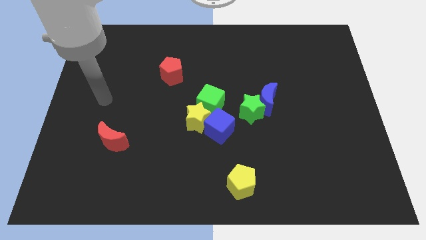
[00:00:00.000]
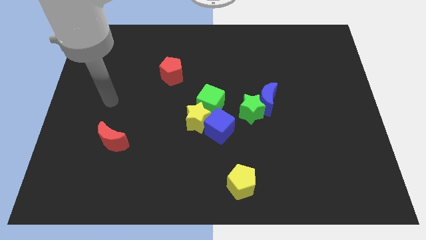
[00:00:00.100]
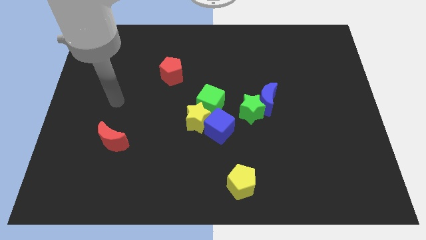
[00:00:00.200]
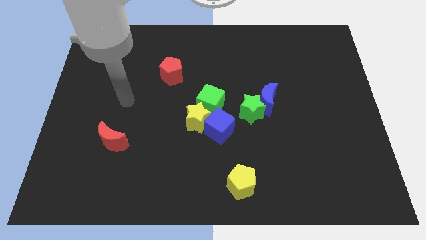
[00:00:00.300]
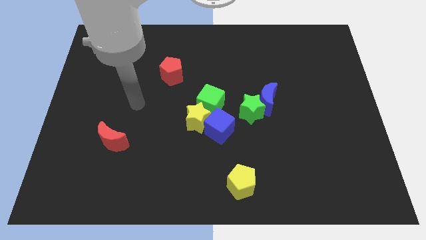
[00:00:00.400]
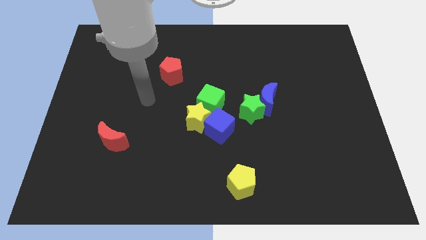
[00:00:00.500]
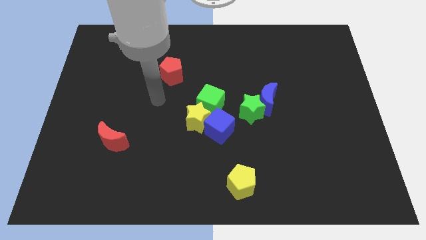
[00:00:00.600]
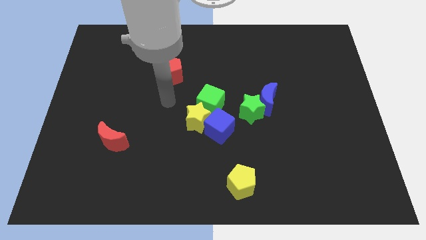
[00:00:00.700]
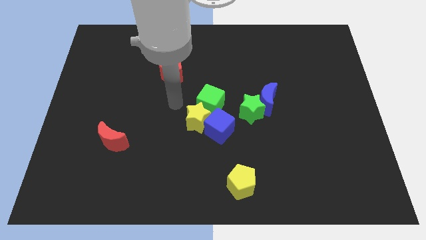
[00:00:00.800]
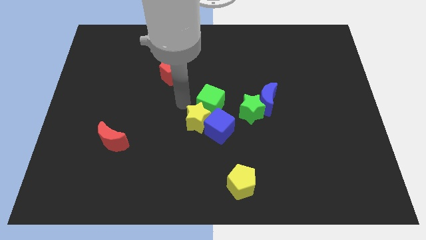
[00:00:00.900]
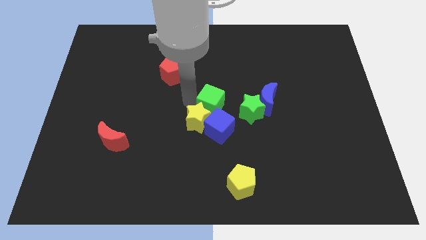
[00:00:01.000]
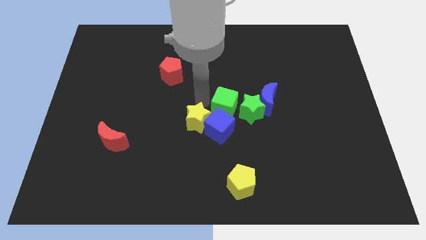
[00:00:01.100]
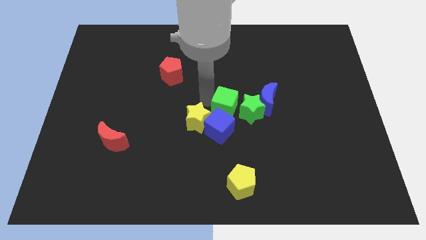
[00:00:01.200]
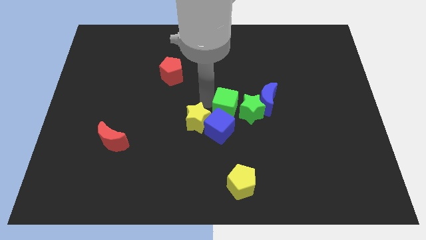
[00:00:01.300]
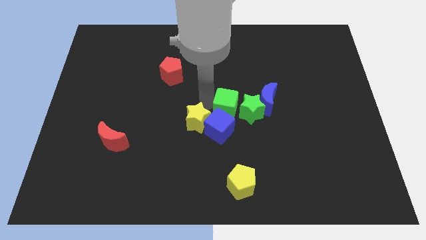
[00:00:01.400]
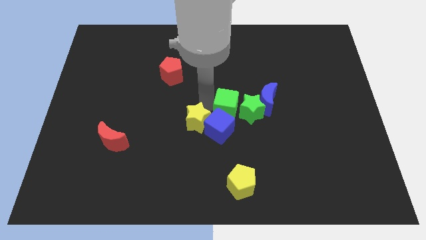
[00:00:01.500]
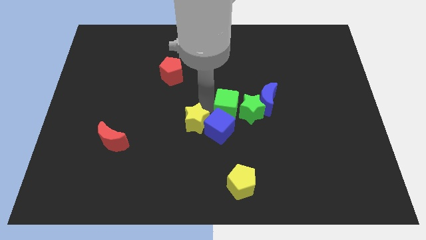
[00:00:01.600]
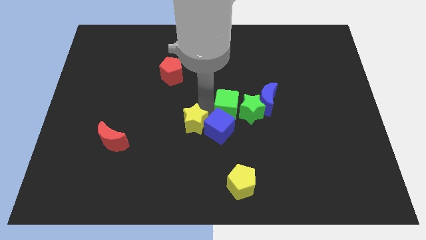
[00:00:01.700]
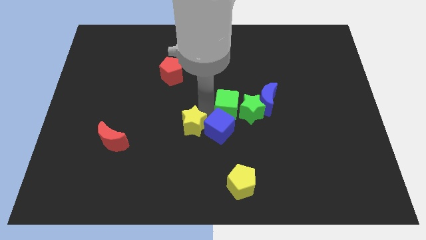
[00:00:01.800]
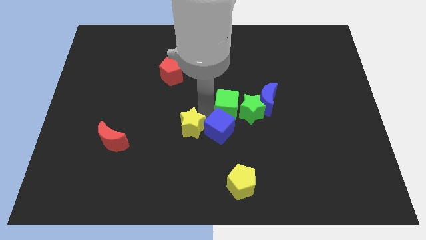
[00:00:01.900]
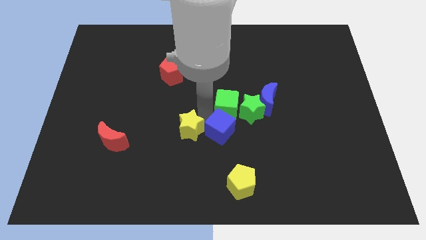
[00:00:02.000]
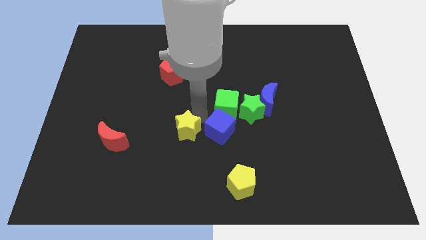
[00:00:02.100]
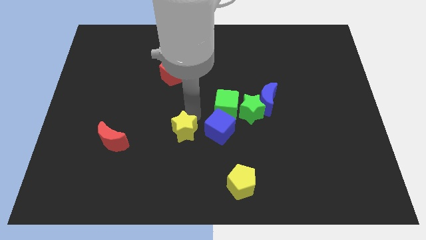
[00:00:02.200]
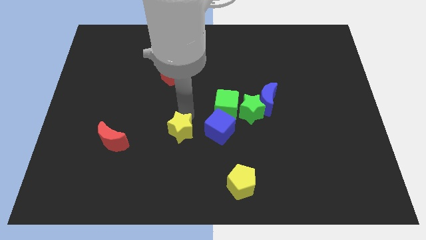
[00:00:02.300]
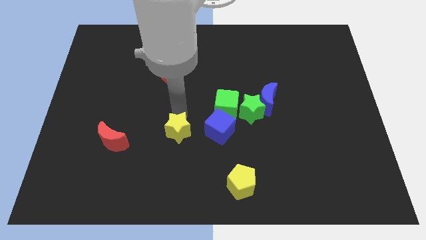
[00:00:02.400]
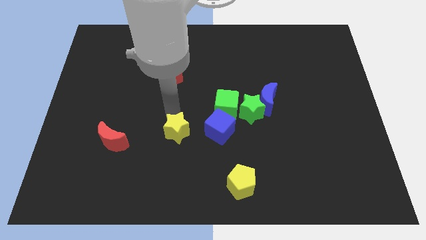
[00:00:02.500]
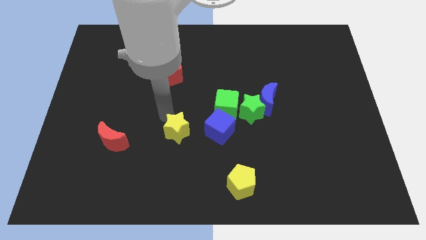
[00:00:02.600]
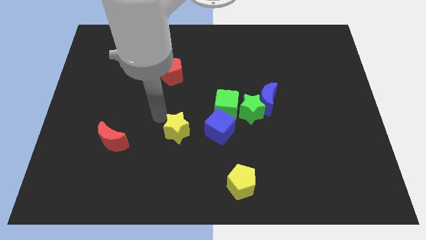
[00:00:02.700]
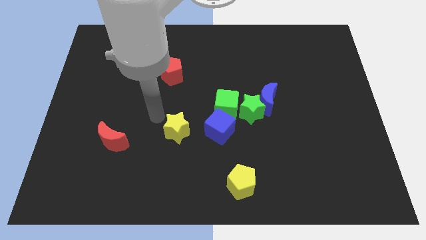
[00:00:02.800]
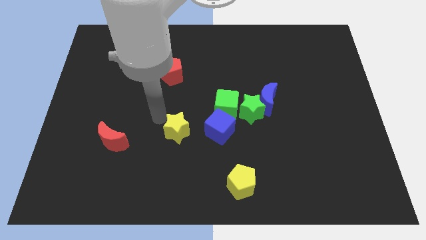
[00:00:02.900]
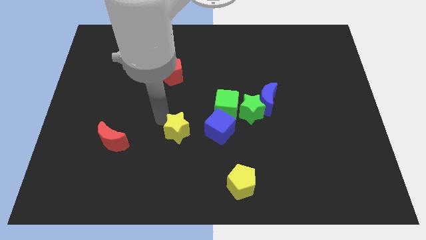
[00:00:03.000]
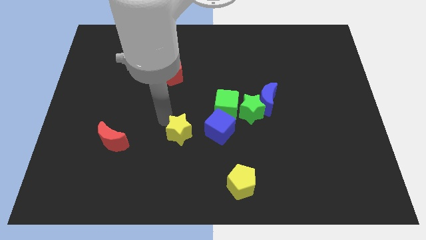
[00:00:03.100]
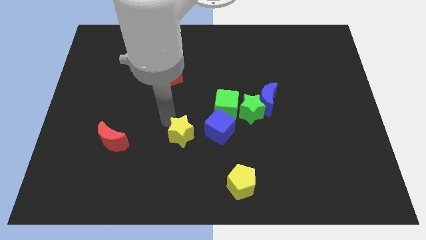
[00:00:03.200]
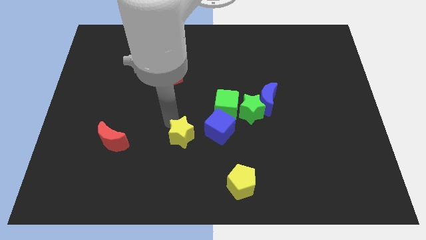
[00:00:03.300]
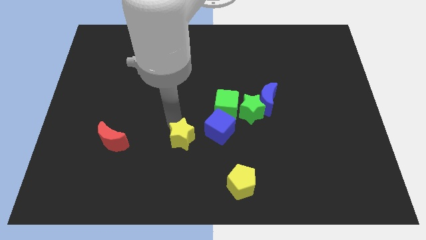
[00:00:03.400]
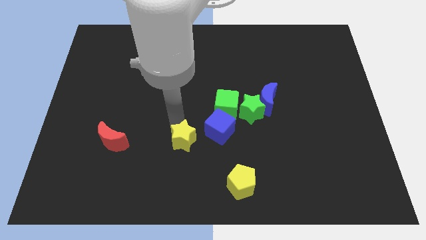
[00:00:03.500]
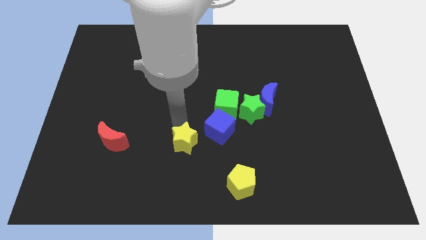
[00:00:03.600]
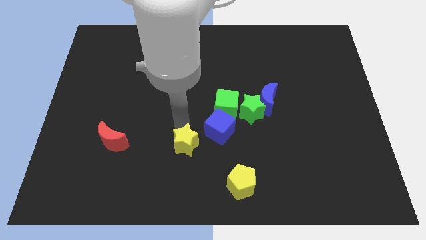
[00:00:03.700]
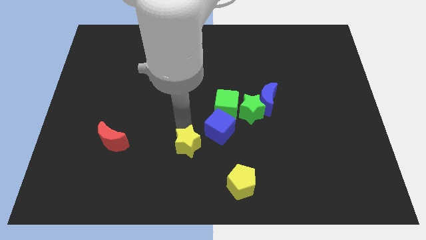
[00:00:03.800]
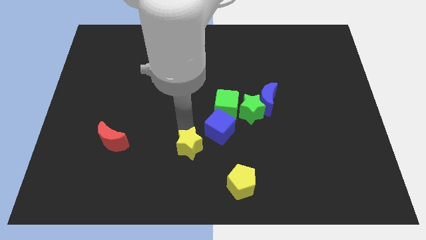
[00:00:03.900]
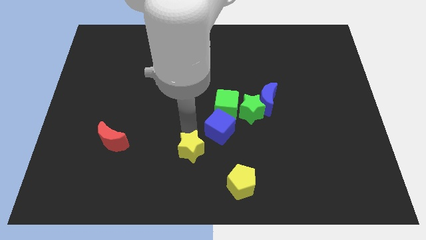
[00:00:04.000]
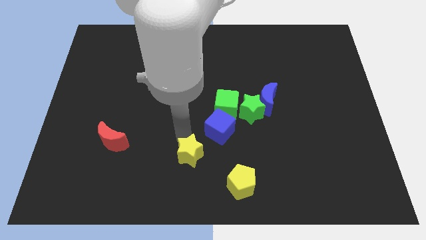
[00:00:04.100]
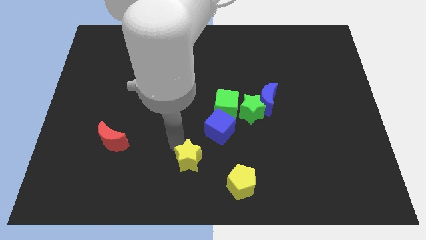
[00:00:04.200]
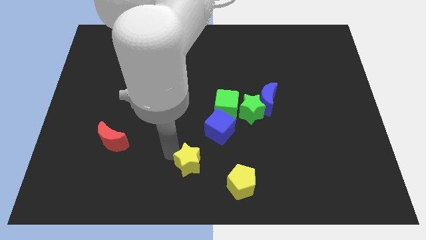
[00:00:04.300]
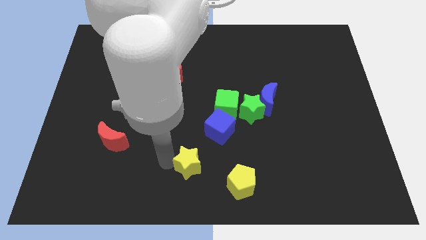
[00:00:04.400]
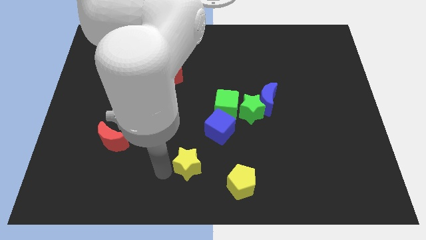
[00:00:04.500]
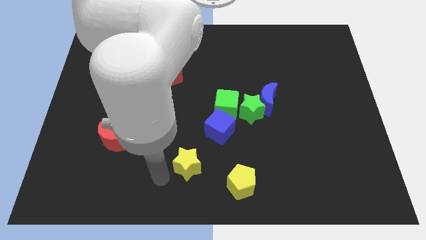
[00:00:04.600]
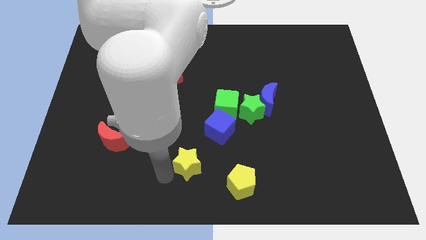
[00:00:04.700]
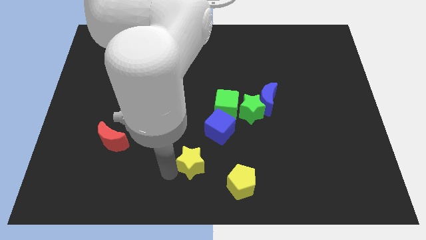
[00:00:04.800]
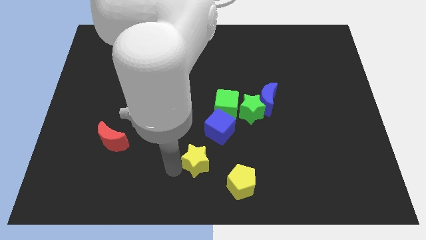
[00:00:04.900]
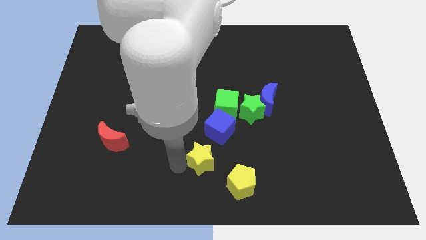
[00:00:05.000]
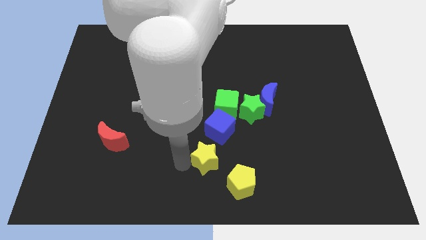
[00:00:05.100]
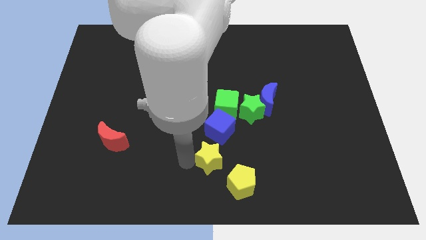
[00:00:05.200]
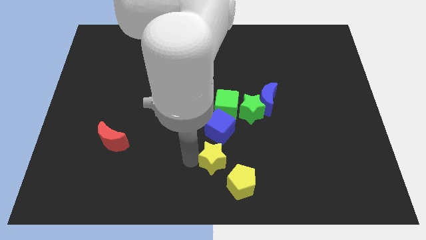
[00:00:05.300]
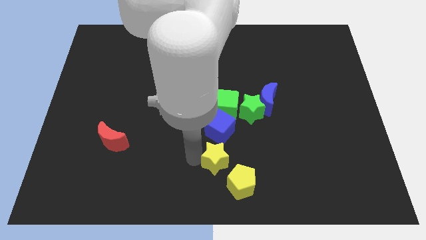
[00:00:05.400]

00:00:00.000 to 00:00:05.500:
slide the yellow star to the top of the yellow pentagon

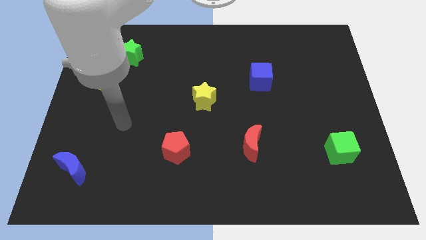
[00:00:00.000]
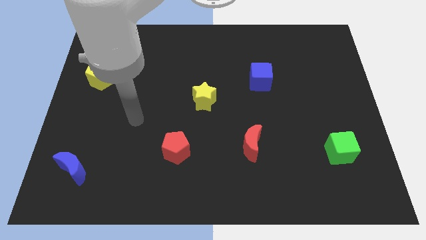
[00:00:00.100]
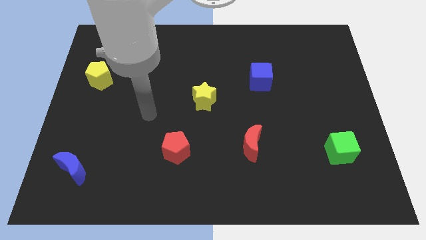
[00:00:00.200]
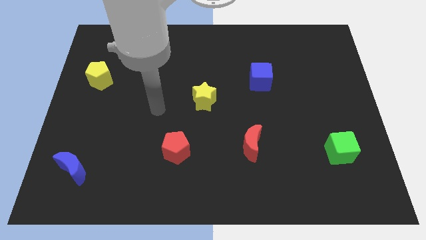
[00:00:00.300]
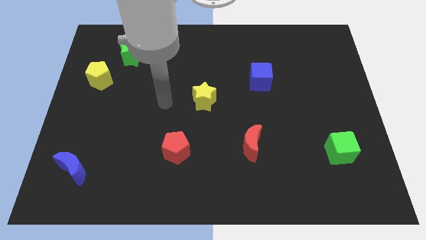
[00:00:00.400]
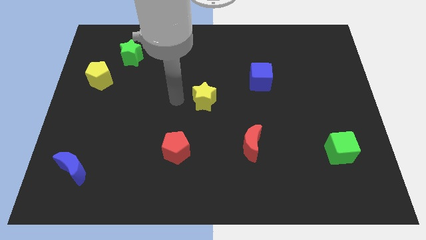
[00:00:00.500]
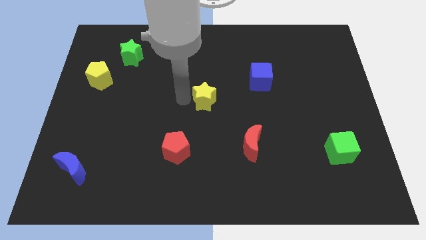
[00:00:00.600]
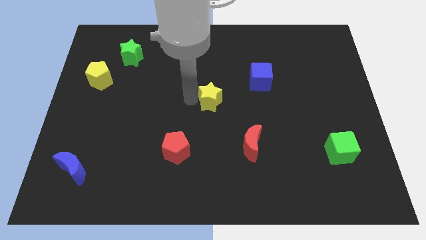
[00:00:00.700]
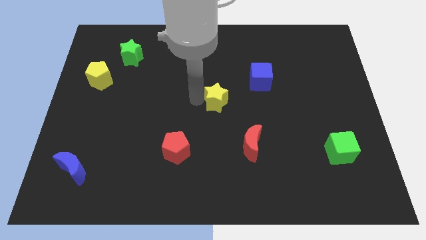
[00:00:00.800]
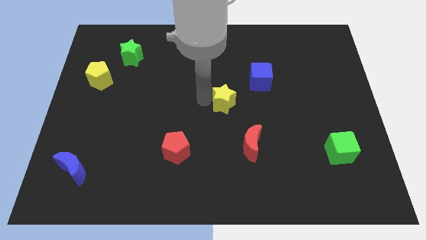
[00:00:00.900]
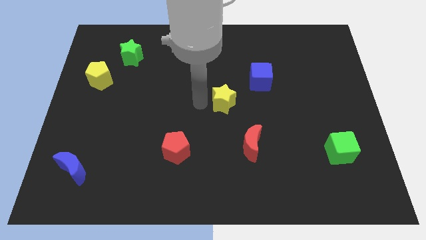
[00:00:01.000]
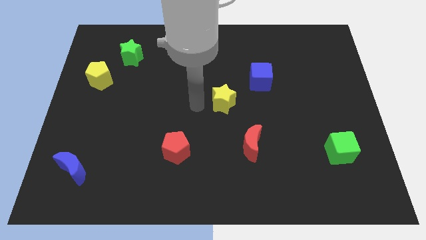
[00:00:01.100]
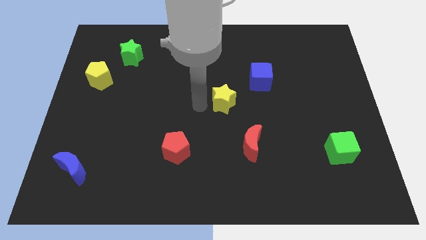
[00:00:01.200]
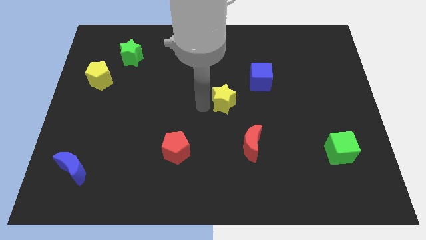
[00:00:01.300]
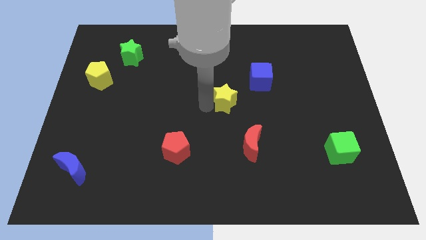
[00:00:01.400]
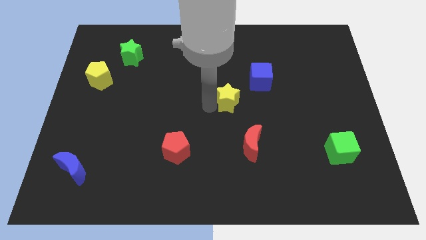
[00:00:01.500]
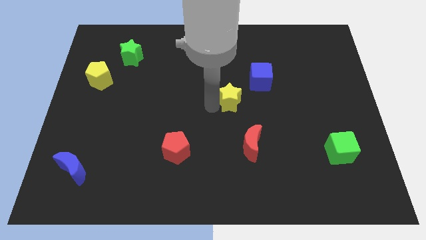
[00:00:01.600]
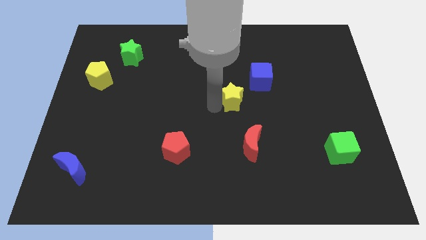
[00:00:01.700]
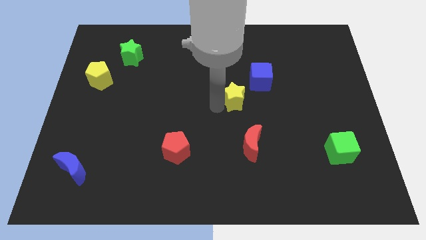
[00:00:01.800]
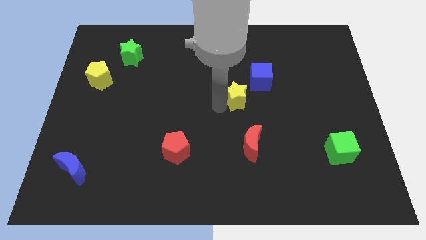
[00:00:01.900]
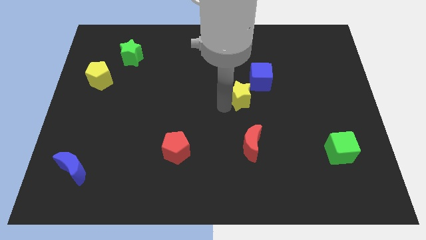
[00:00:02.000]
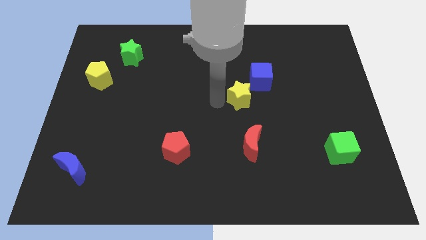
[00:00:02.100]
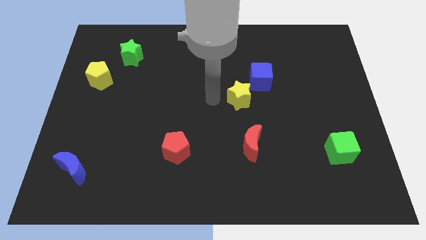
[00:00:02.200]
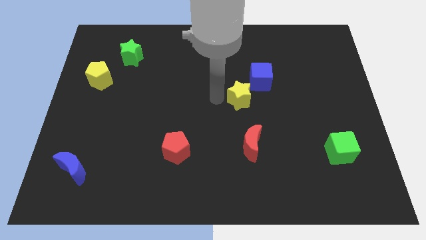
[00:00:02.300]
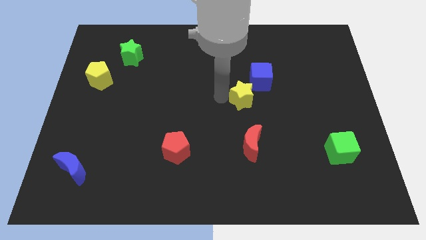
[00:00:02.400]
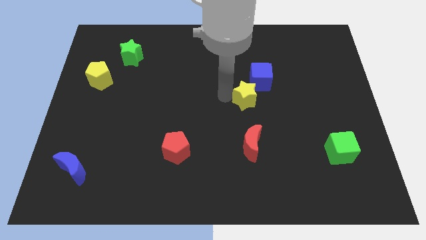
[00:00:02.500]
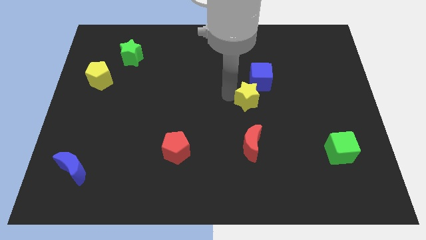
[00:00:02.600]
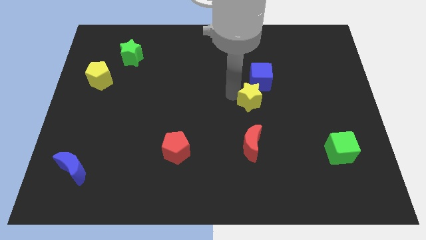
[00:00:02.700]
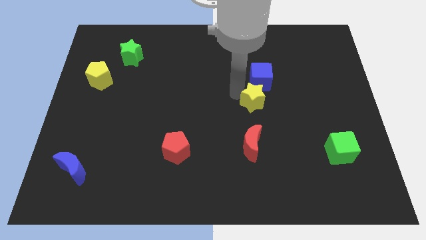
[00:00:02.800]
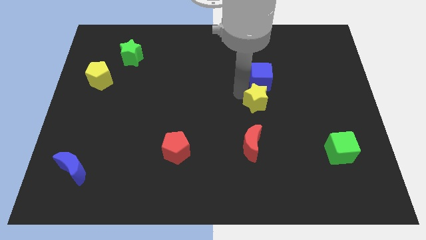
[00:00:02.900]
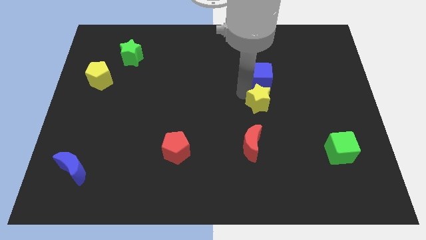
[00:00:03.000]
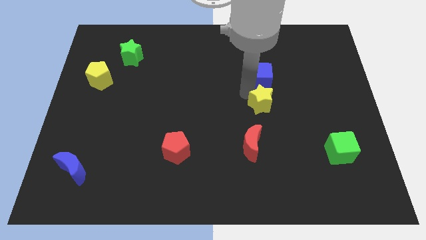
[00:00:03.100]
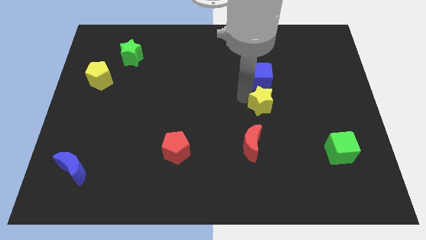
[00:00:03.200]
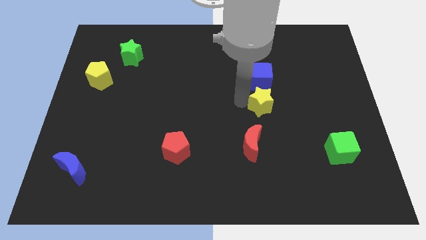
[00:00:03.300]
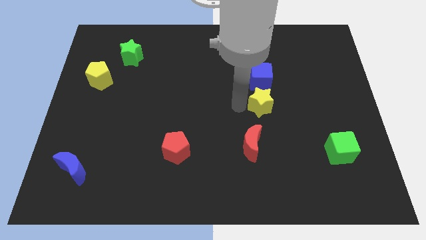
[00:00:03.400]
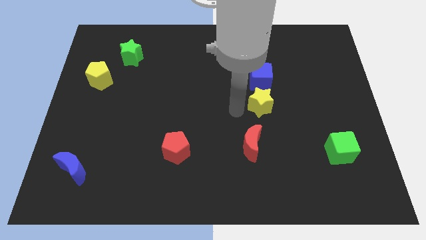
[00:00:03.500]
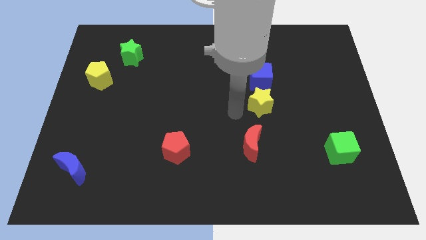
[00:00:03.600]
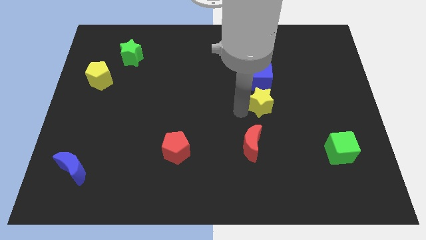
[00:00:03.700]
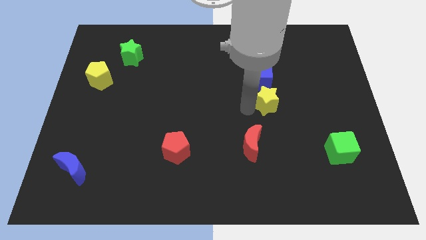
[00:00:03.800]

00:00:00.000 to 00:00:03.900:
push the yellow star to the bottom right side of the blue cube
